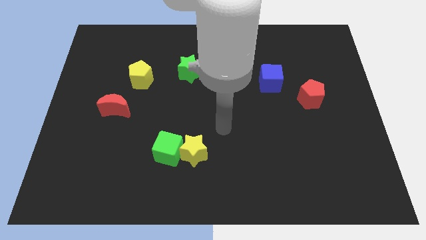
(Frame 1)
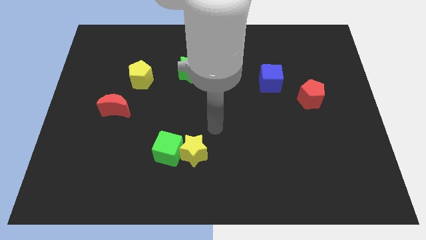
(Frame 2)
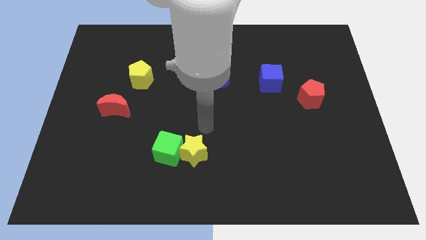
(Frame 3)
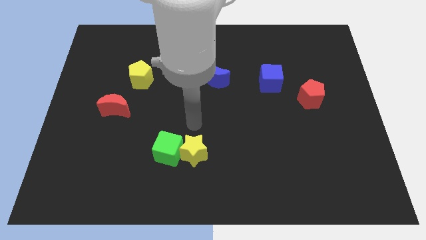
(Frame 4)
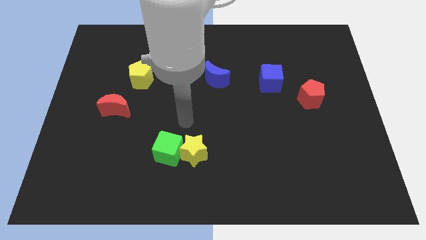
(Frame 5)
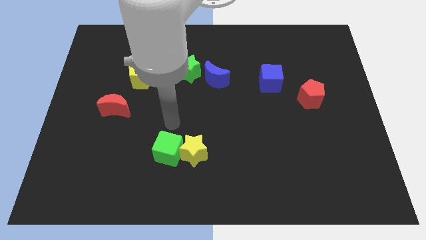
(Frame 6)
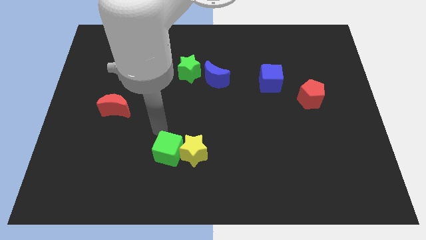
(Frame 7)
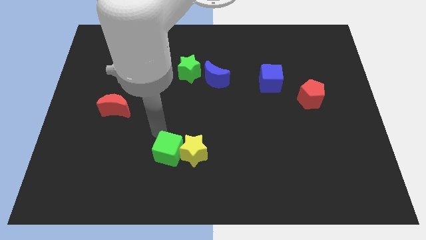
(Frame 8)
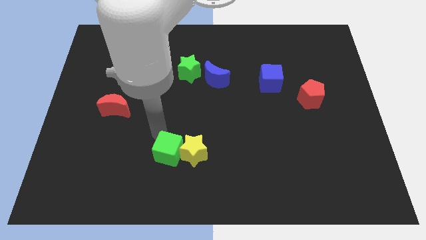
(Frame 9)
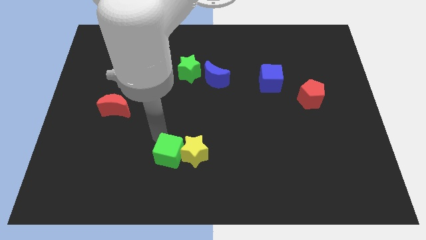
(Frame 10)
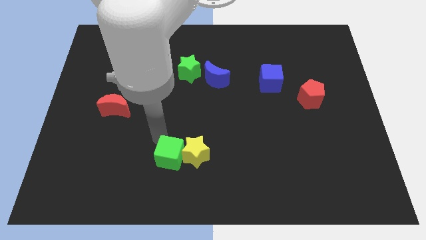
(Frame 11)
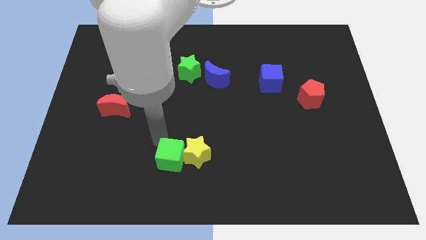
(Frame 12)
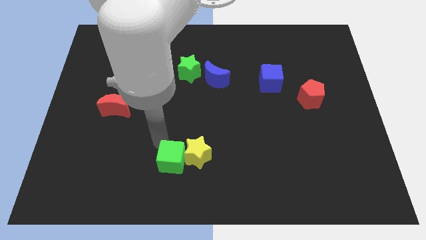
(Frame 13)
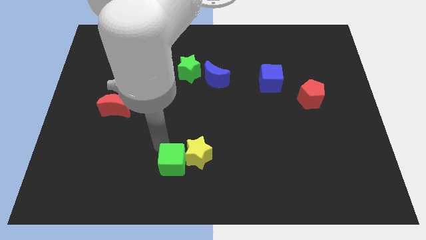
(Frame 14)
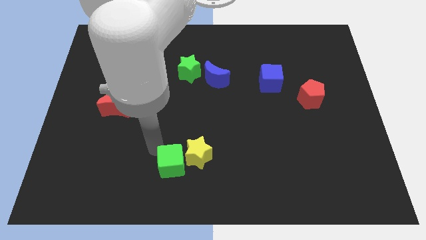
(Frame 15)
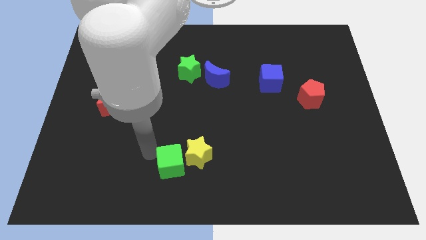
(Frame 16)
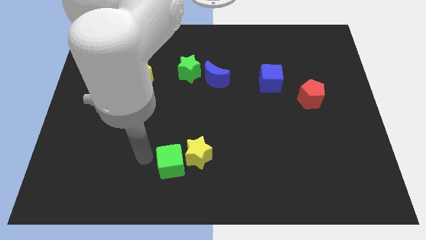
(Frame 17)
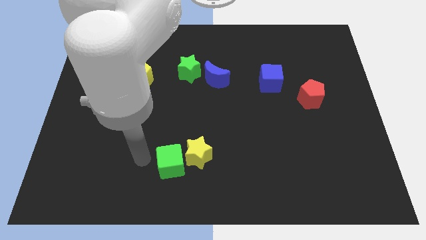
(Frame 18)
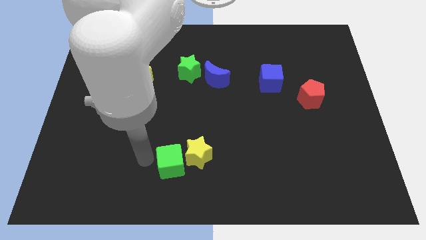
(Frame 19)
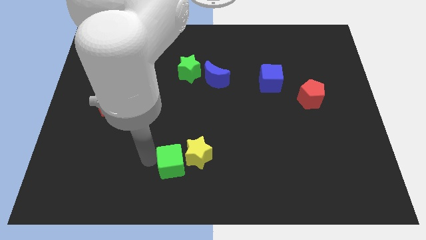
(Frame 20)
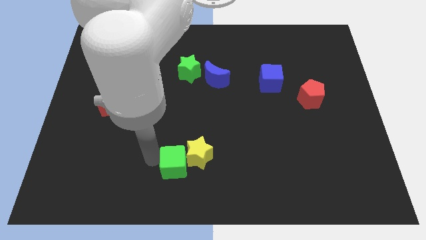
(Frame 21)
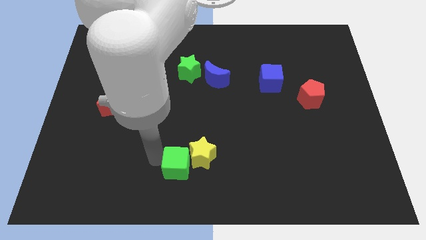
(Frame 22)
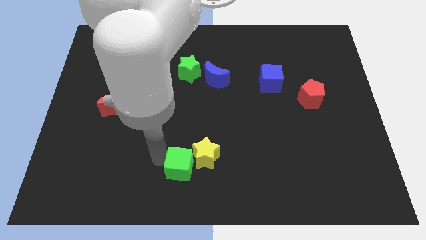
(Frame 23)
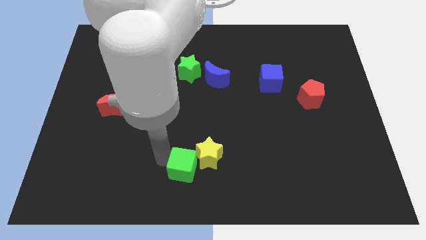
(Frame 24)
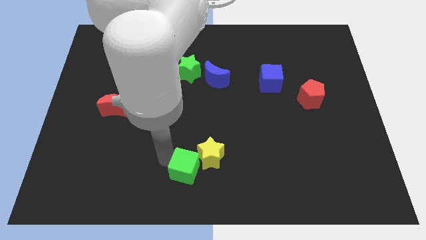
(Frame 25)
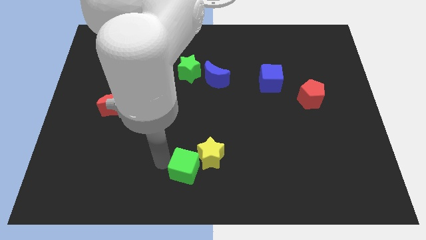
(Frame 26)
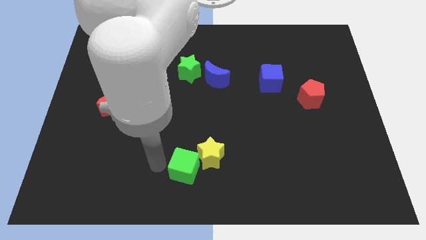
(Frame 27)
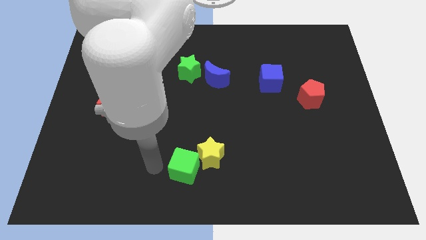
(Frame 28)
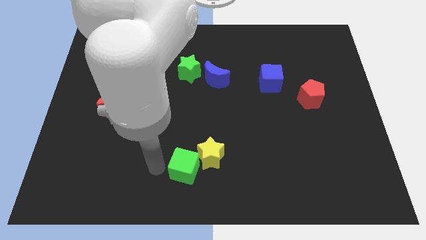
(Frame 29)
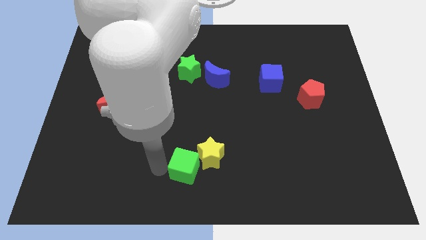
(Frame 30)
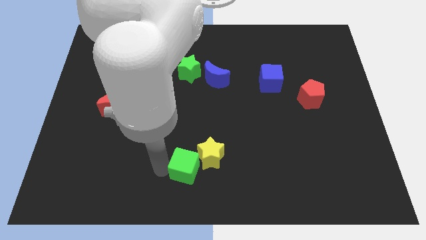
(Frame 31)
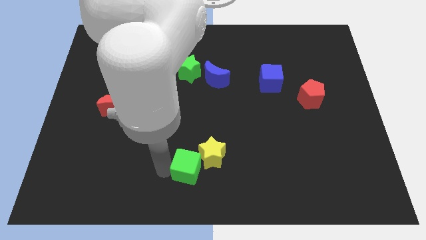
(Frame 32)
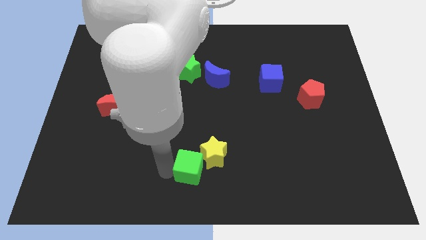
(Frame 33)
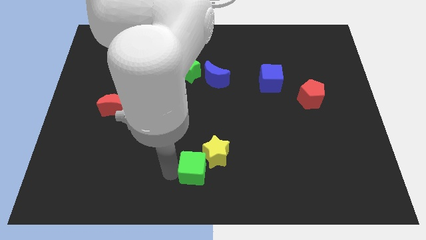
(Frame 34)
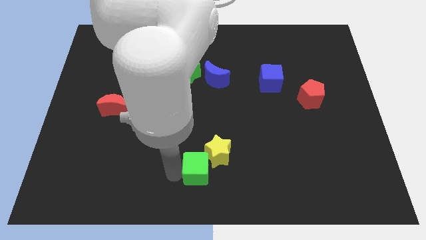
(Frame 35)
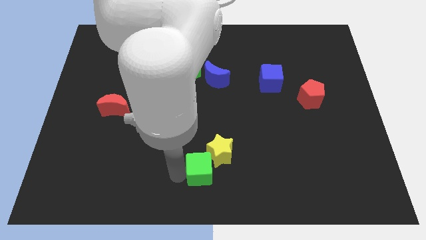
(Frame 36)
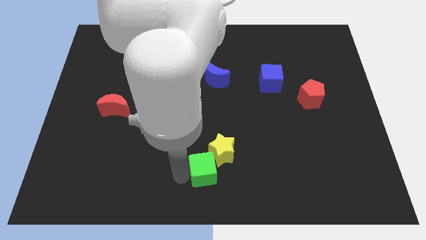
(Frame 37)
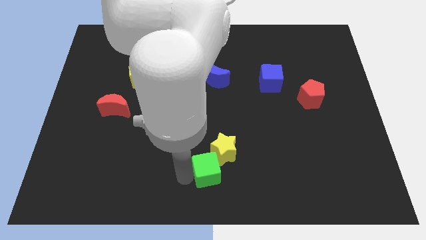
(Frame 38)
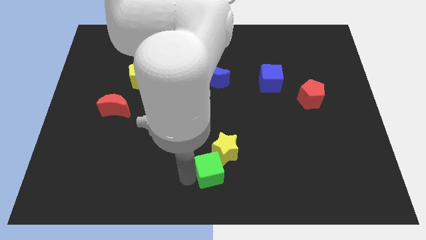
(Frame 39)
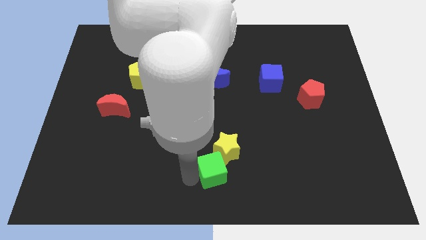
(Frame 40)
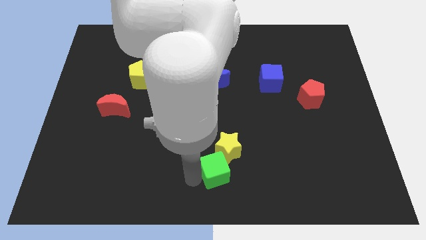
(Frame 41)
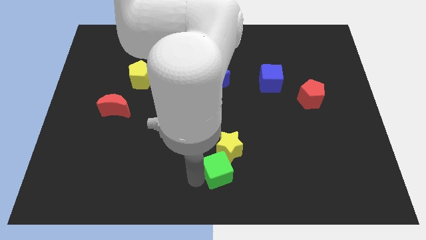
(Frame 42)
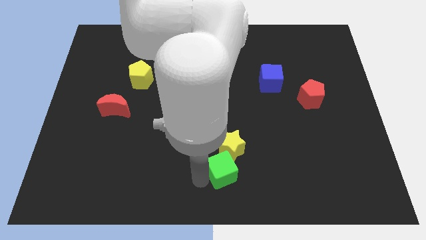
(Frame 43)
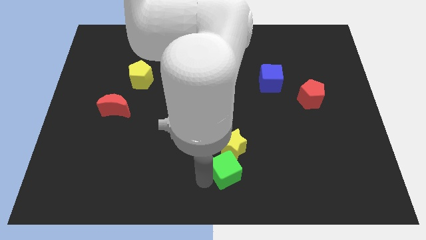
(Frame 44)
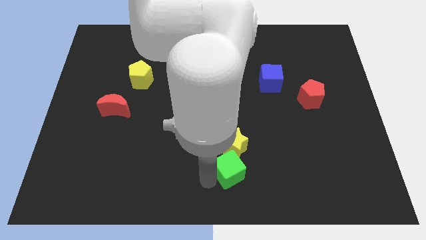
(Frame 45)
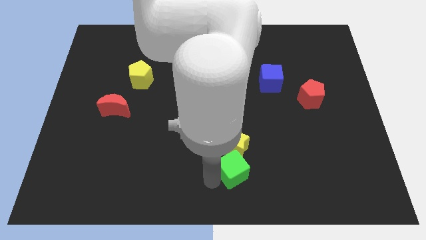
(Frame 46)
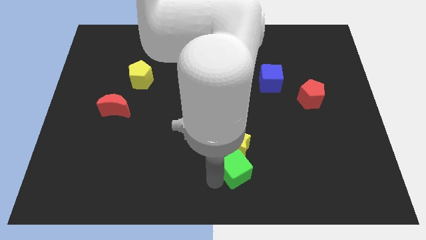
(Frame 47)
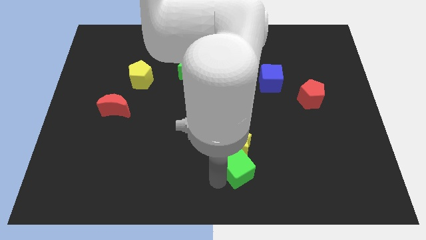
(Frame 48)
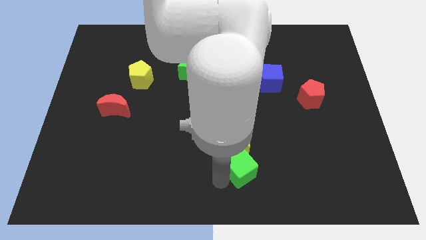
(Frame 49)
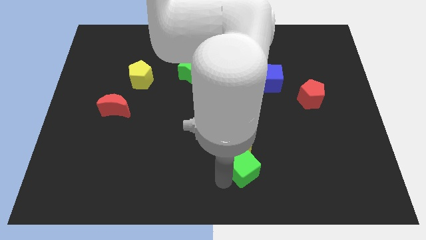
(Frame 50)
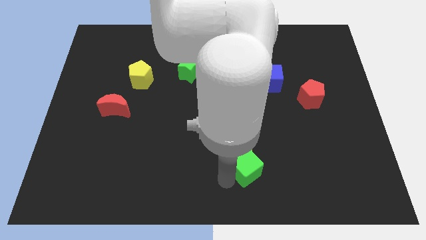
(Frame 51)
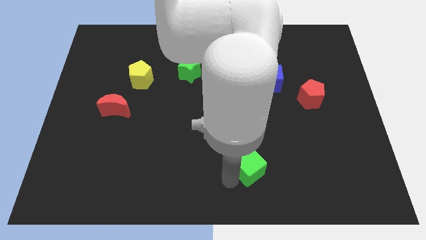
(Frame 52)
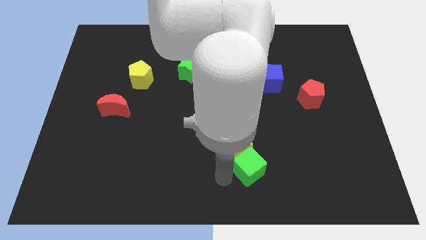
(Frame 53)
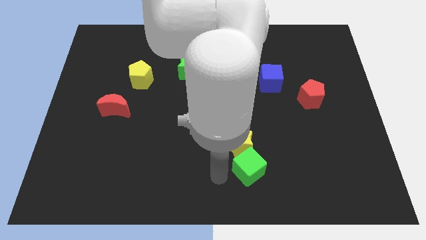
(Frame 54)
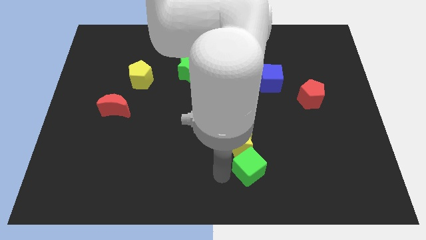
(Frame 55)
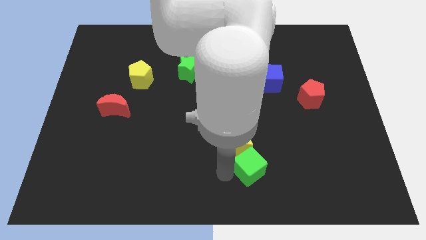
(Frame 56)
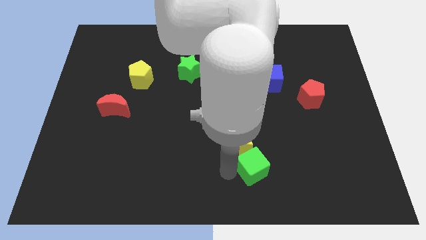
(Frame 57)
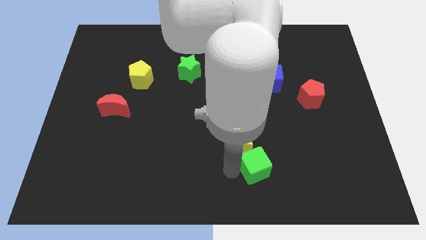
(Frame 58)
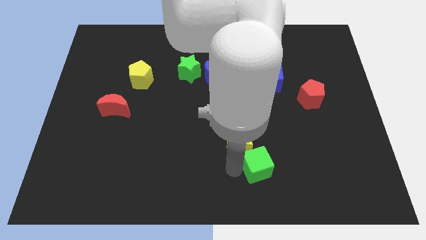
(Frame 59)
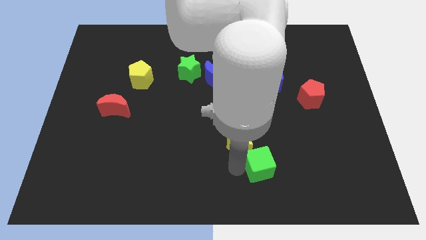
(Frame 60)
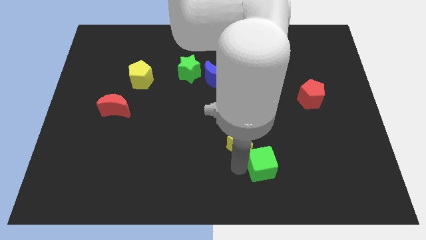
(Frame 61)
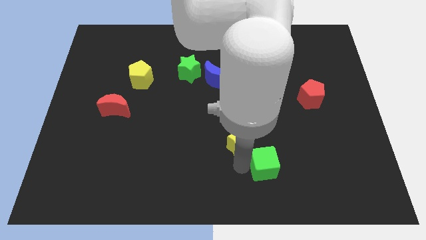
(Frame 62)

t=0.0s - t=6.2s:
push the green cube to the right

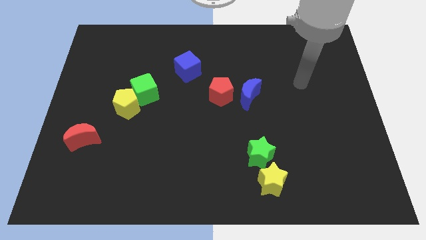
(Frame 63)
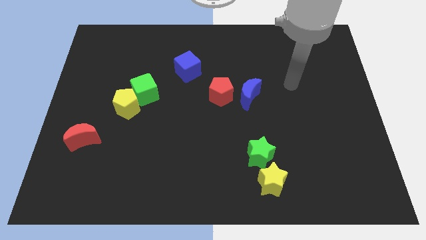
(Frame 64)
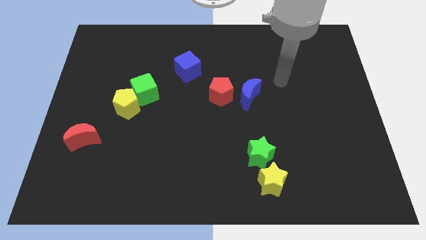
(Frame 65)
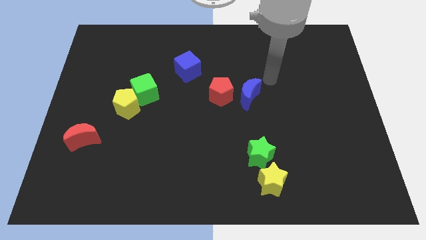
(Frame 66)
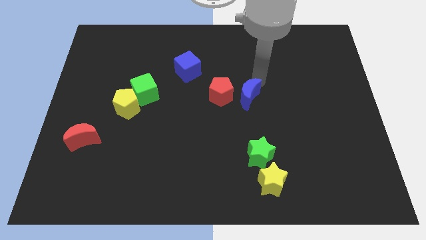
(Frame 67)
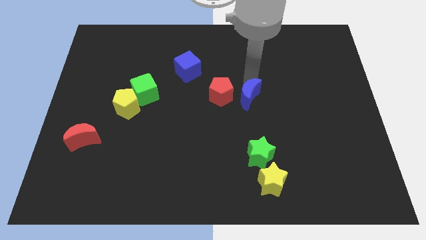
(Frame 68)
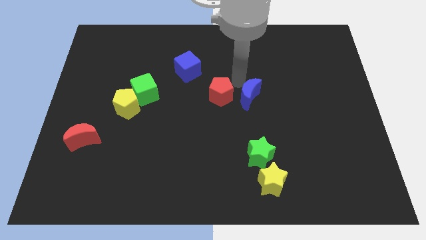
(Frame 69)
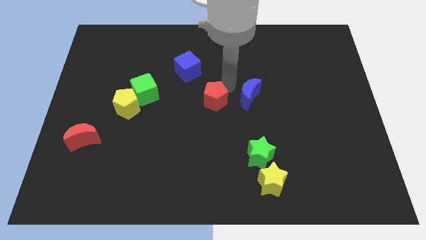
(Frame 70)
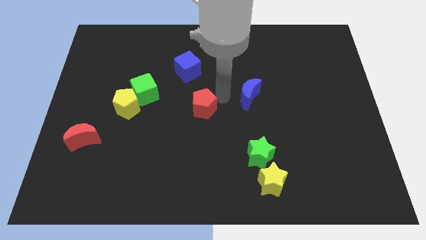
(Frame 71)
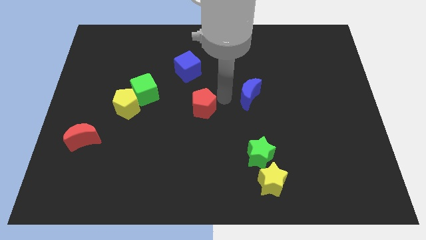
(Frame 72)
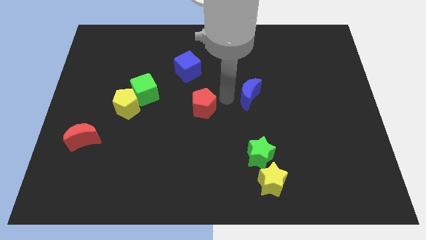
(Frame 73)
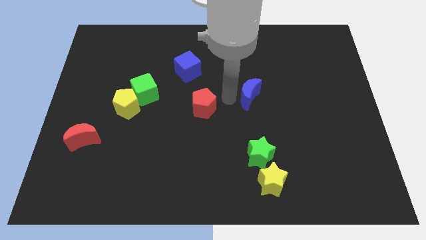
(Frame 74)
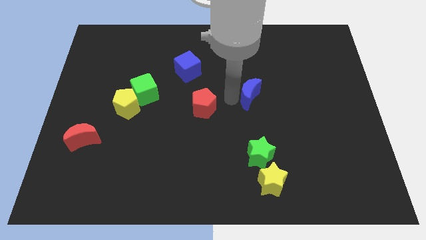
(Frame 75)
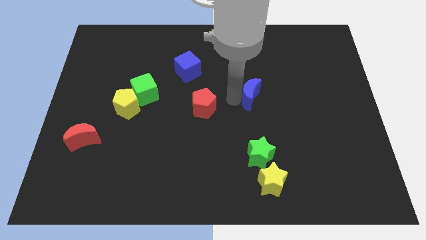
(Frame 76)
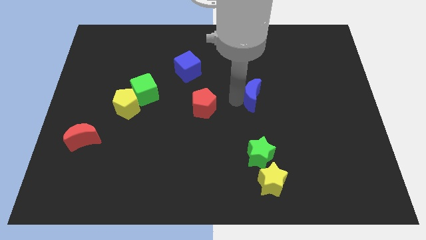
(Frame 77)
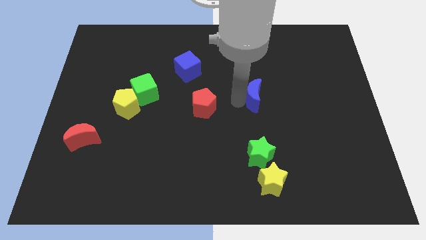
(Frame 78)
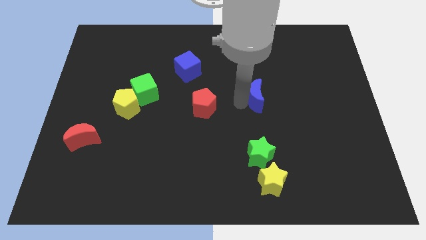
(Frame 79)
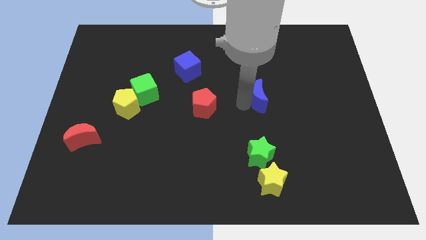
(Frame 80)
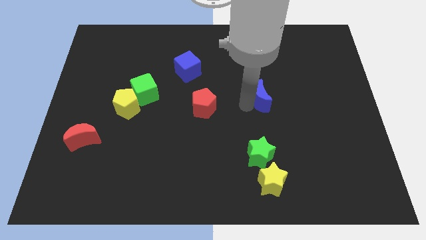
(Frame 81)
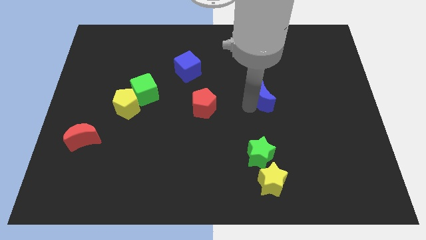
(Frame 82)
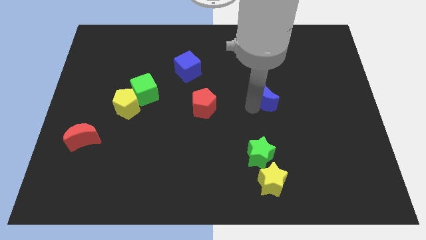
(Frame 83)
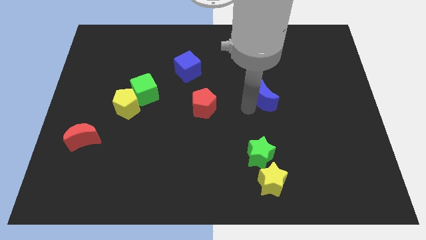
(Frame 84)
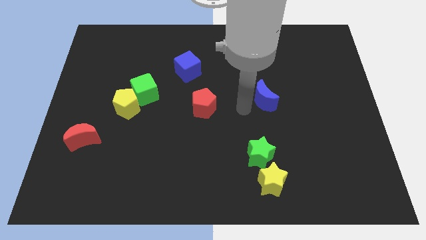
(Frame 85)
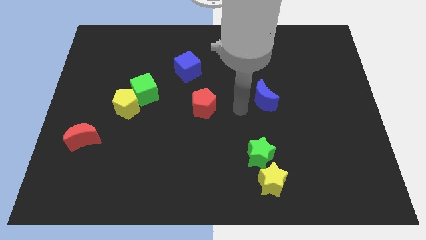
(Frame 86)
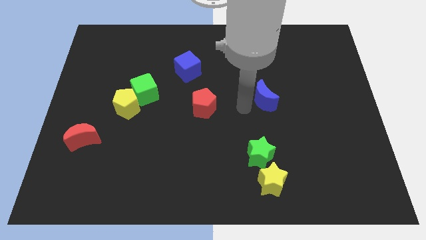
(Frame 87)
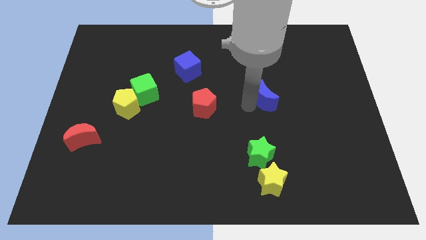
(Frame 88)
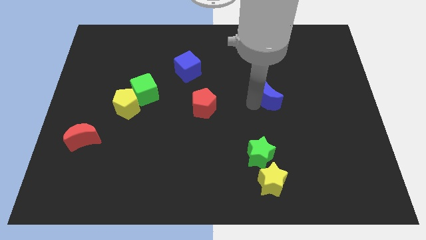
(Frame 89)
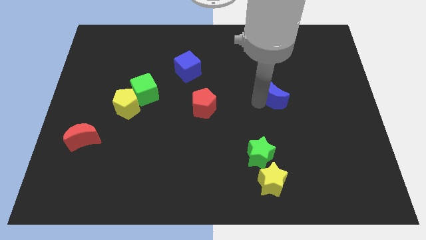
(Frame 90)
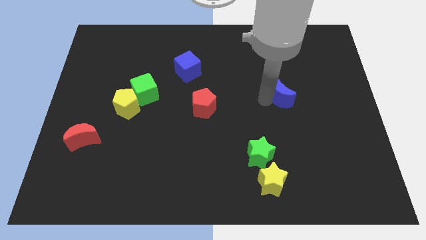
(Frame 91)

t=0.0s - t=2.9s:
push the blue moon right slightly
